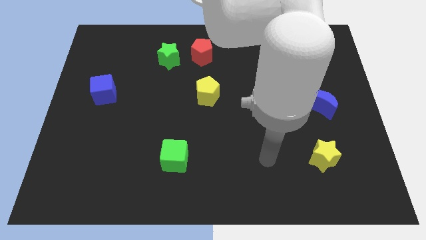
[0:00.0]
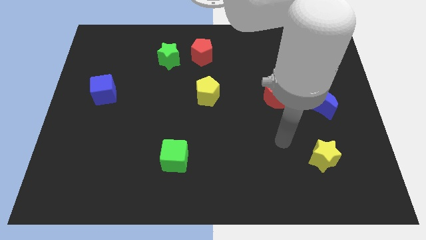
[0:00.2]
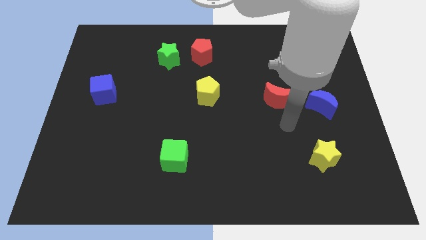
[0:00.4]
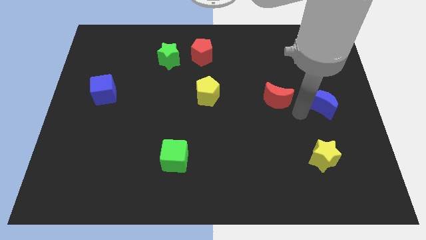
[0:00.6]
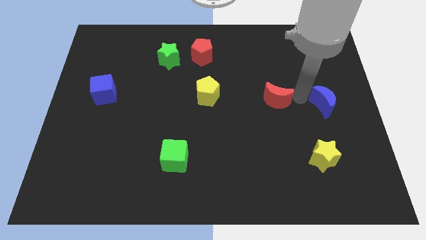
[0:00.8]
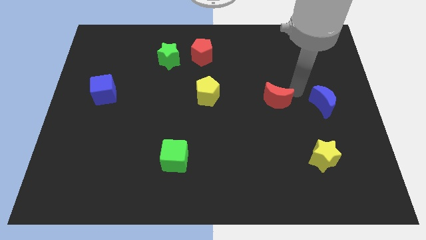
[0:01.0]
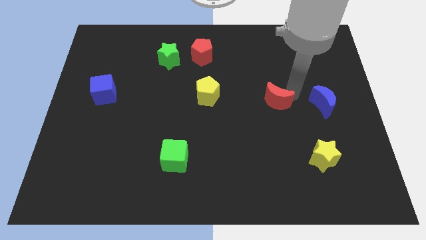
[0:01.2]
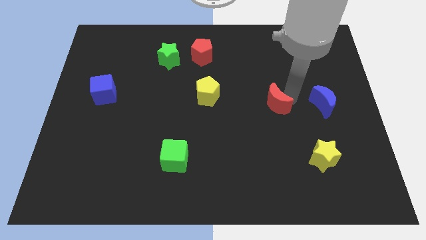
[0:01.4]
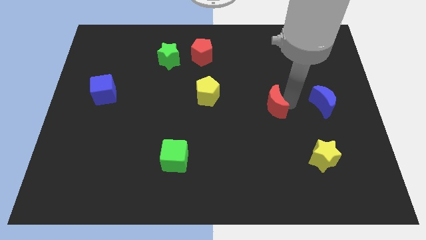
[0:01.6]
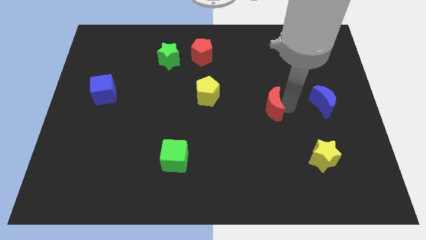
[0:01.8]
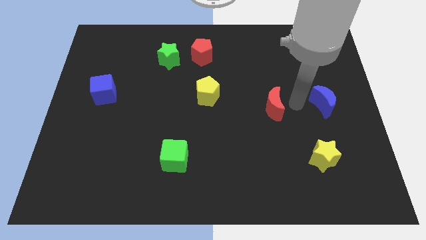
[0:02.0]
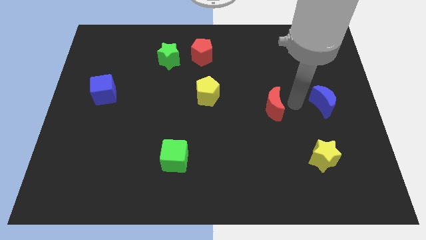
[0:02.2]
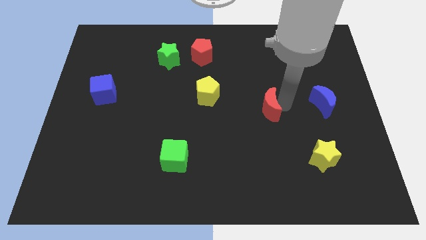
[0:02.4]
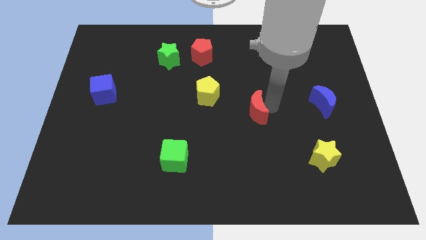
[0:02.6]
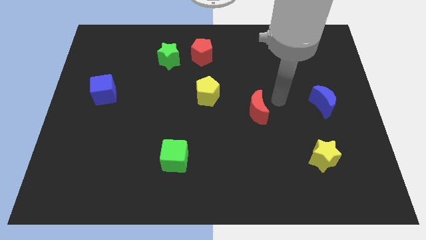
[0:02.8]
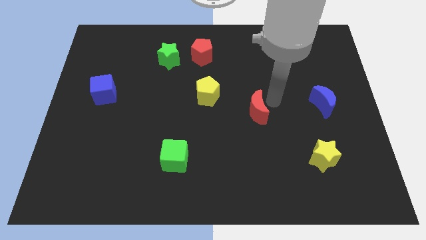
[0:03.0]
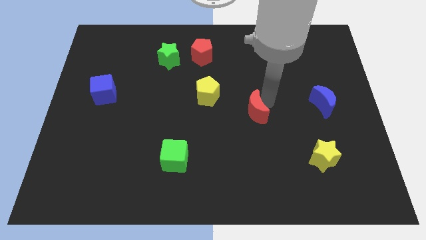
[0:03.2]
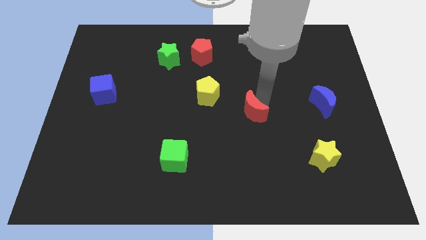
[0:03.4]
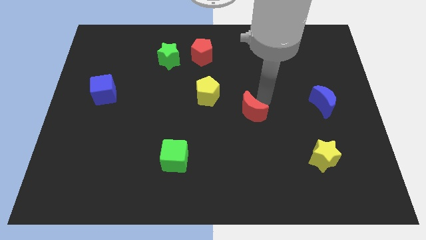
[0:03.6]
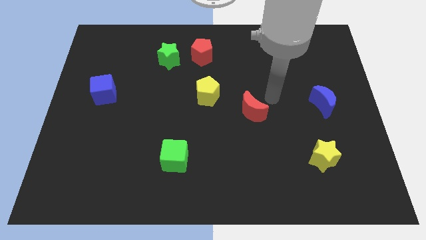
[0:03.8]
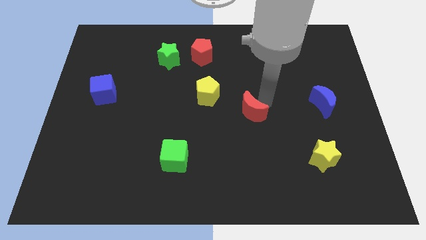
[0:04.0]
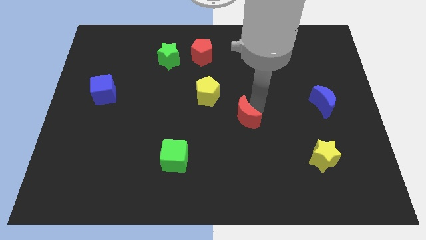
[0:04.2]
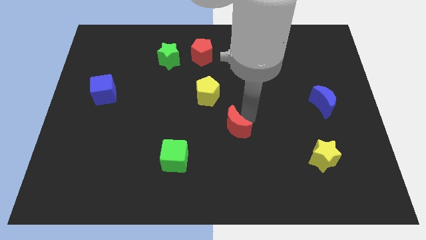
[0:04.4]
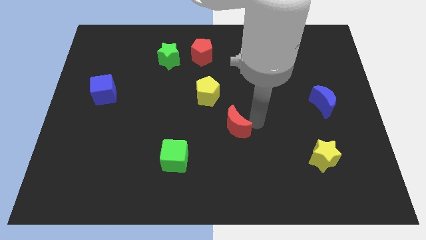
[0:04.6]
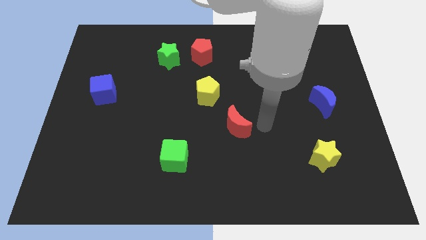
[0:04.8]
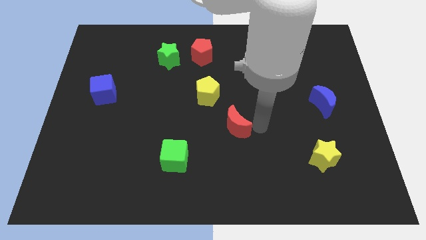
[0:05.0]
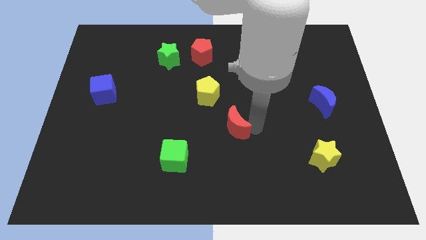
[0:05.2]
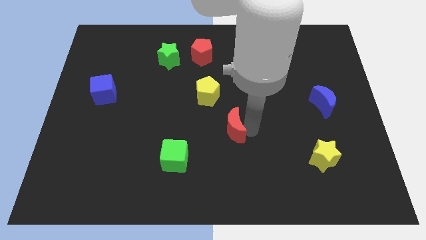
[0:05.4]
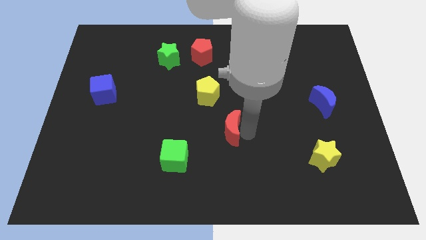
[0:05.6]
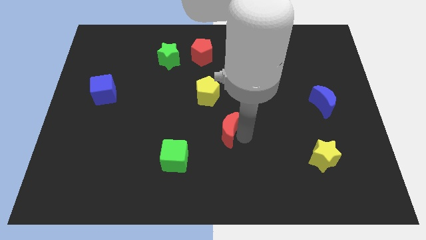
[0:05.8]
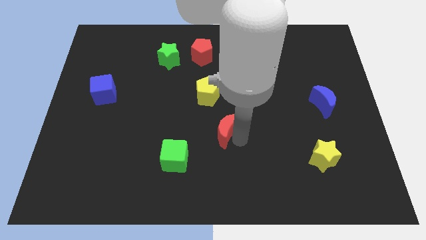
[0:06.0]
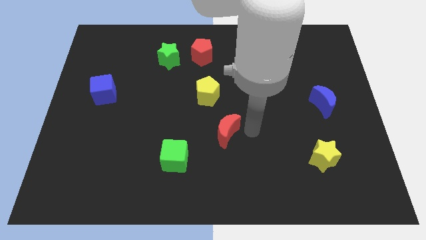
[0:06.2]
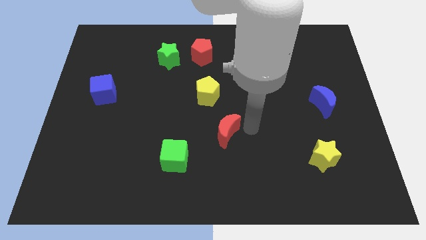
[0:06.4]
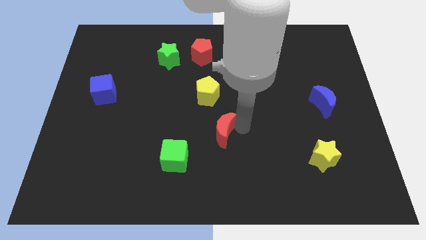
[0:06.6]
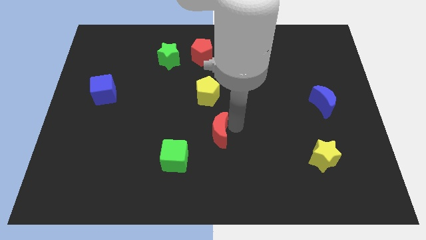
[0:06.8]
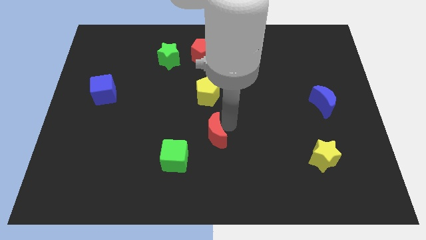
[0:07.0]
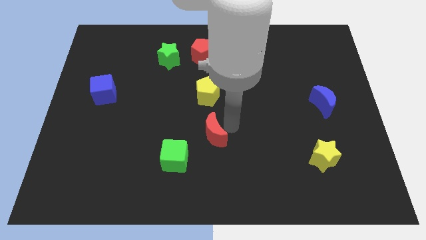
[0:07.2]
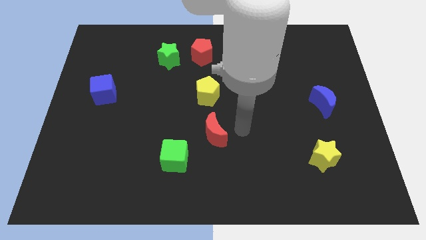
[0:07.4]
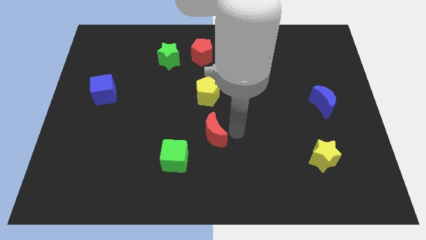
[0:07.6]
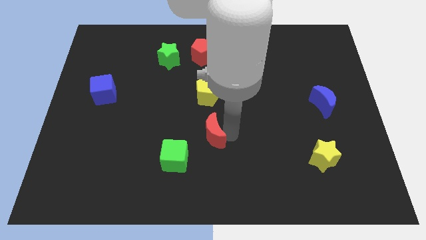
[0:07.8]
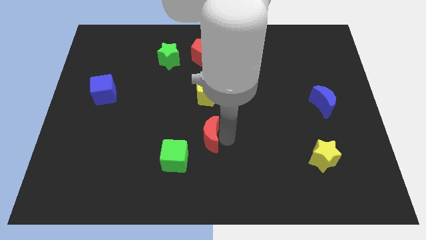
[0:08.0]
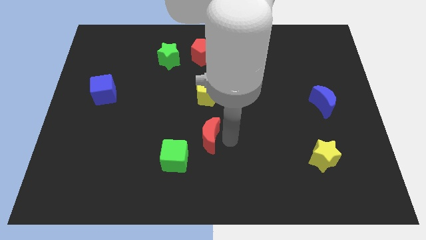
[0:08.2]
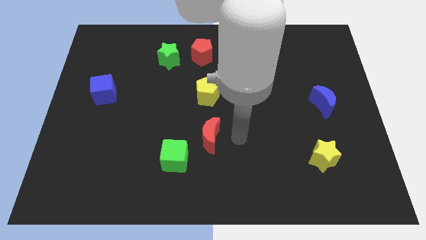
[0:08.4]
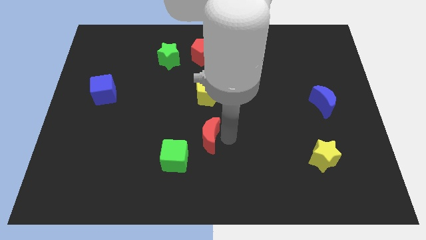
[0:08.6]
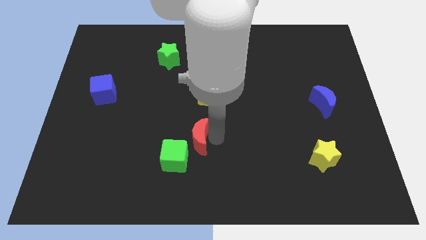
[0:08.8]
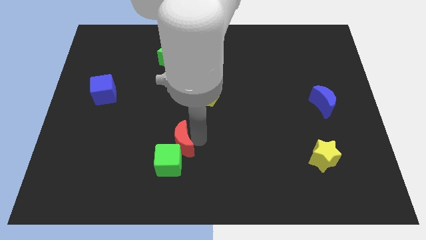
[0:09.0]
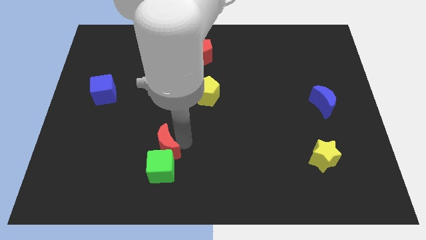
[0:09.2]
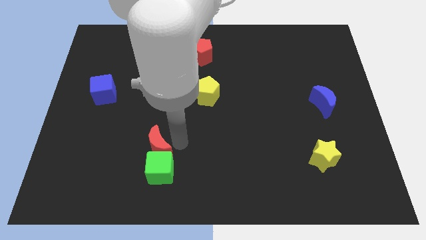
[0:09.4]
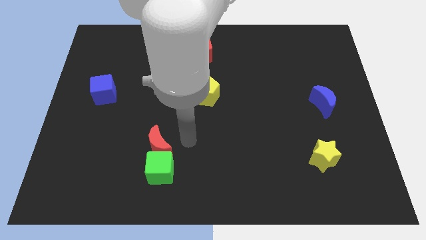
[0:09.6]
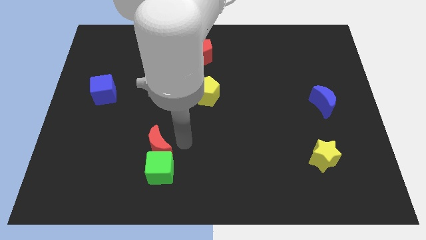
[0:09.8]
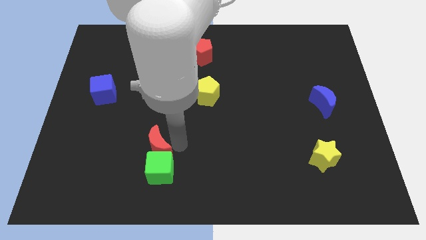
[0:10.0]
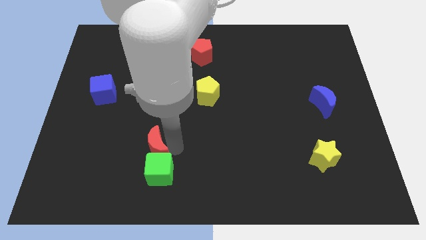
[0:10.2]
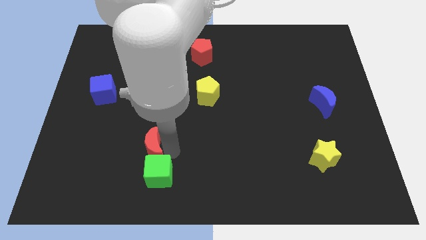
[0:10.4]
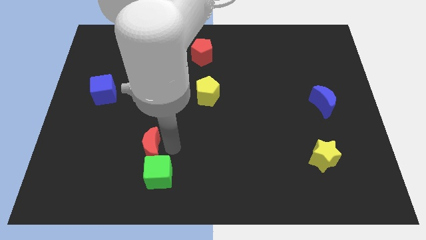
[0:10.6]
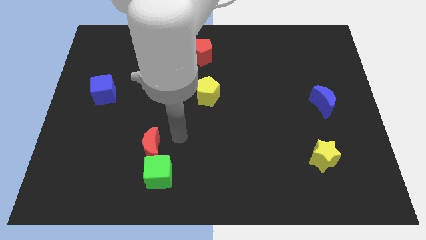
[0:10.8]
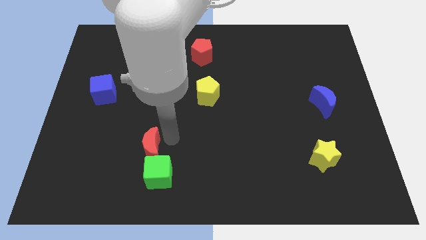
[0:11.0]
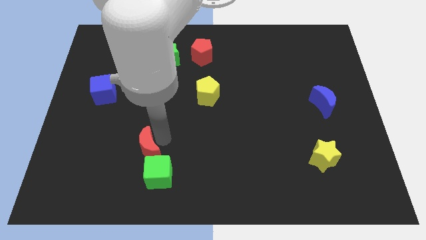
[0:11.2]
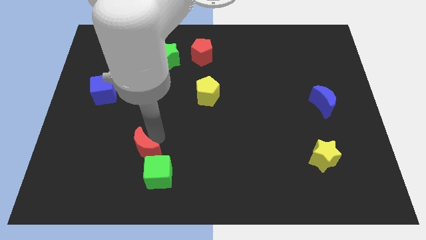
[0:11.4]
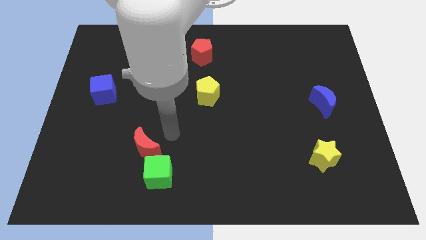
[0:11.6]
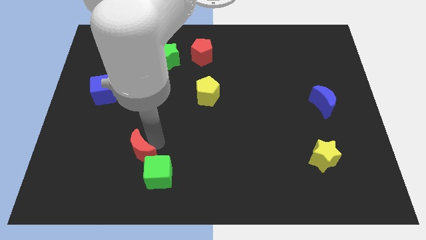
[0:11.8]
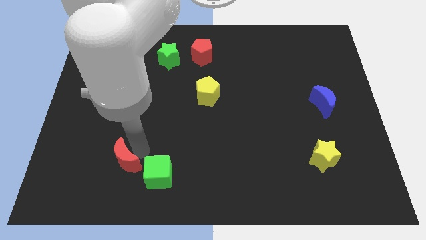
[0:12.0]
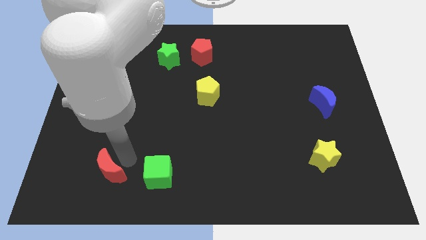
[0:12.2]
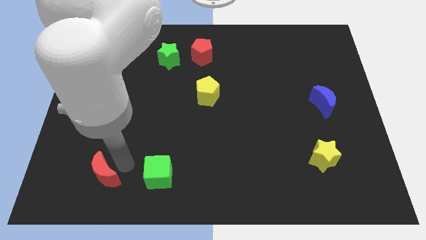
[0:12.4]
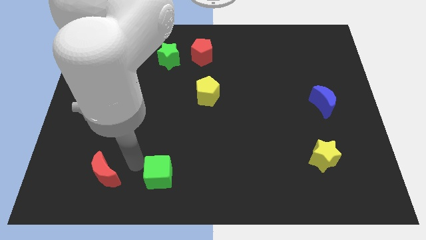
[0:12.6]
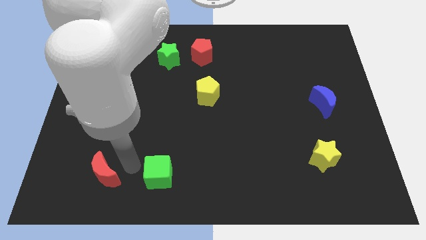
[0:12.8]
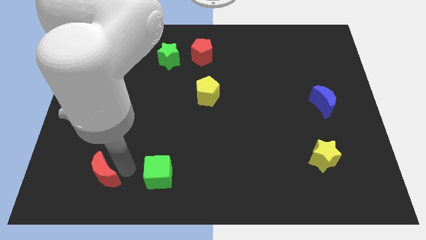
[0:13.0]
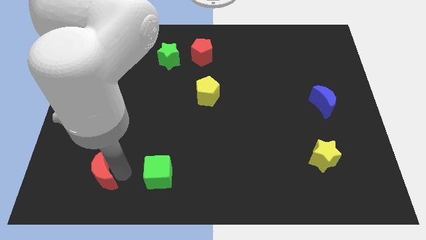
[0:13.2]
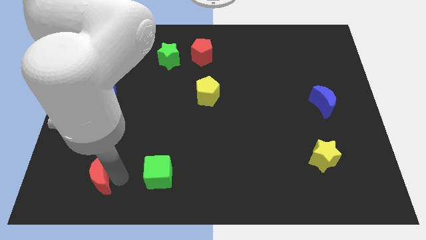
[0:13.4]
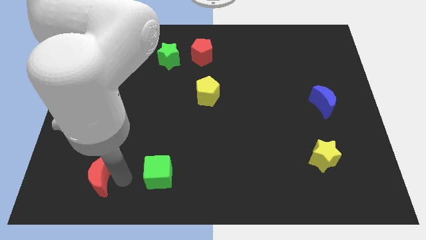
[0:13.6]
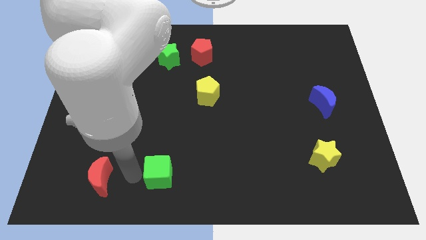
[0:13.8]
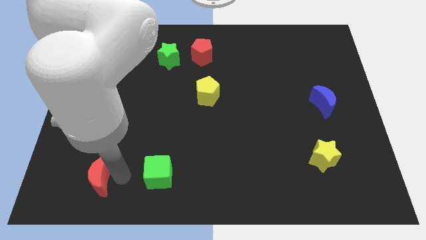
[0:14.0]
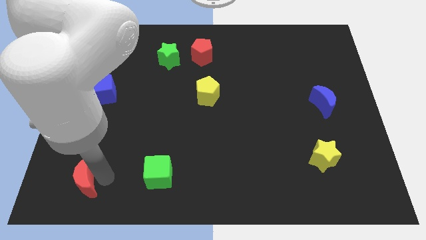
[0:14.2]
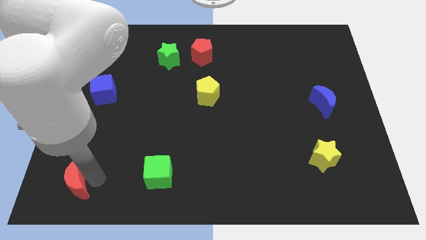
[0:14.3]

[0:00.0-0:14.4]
put the red moon to the bottom left

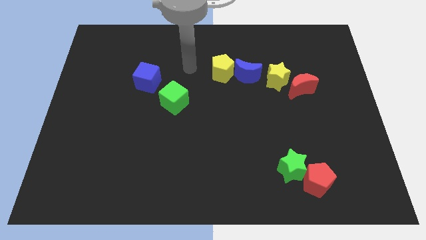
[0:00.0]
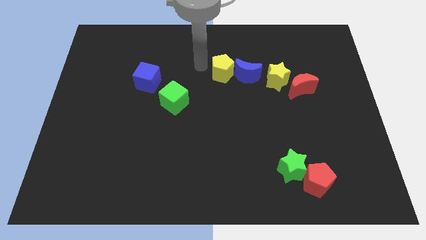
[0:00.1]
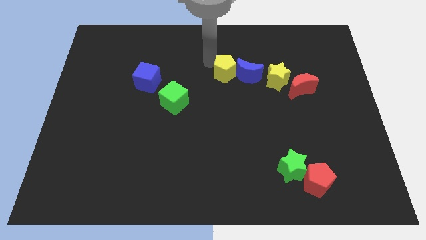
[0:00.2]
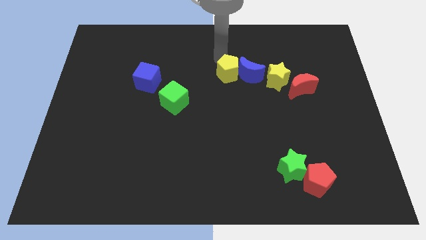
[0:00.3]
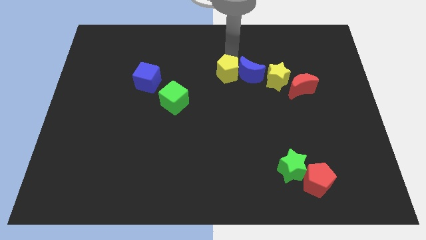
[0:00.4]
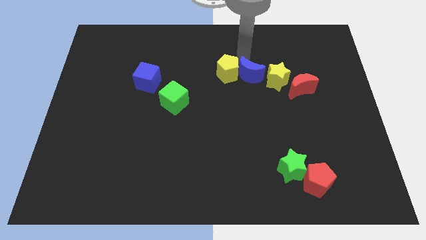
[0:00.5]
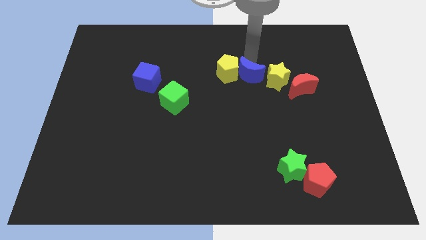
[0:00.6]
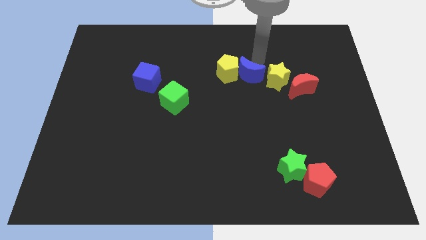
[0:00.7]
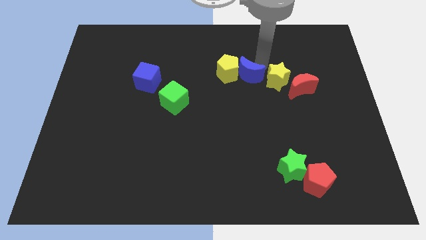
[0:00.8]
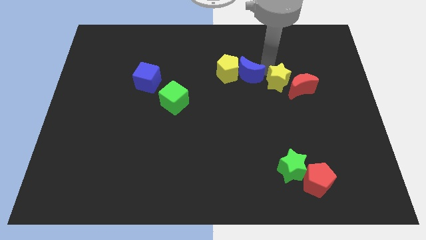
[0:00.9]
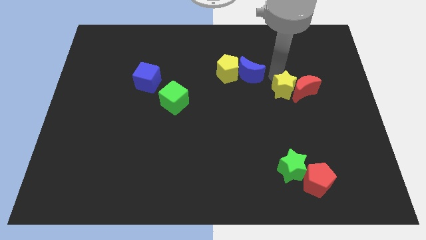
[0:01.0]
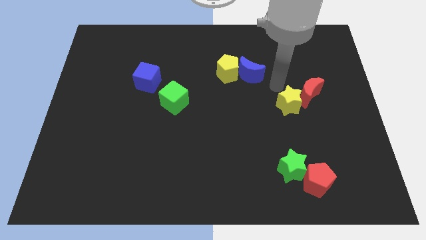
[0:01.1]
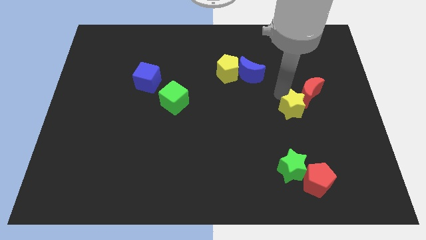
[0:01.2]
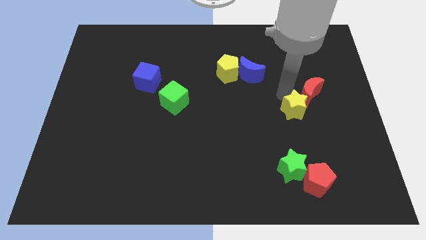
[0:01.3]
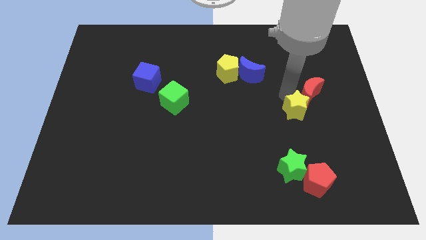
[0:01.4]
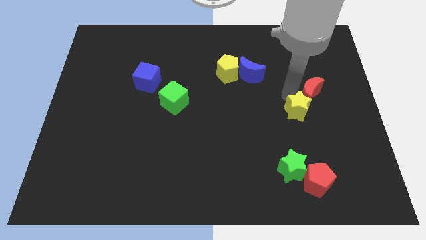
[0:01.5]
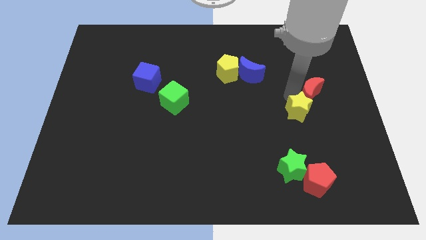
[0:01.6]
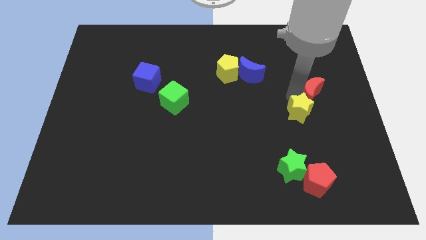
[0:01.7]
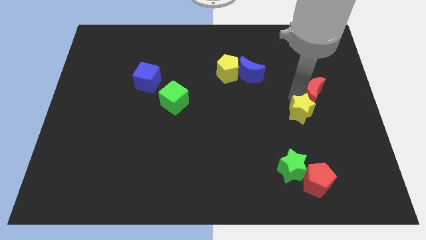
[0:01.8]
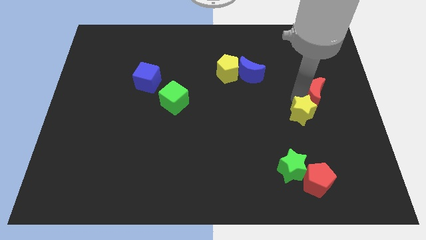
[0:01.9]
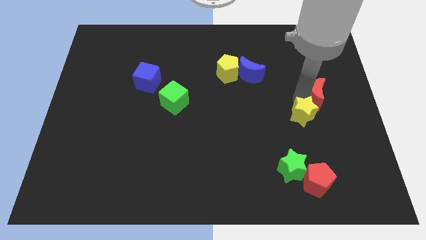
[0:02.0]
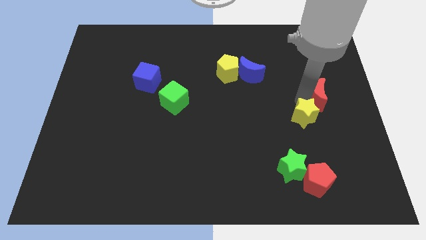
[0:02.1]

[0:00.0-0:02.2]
slide the red moon to the center right
